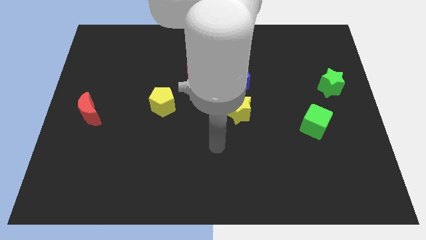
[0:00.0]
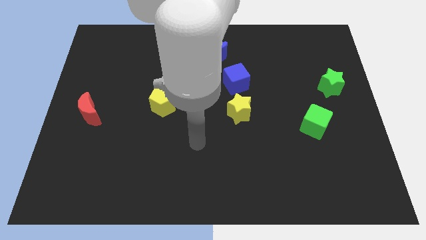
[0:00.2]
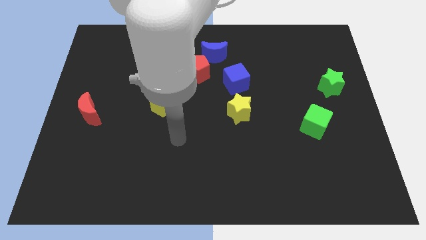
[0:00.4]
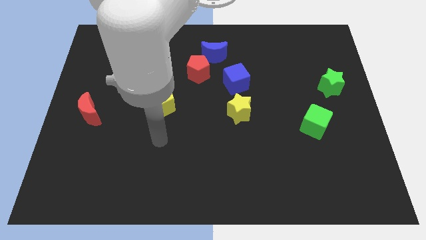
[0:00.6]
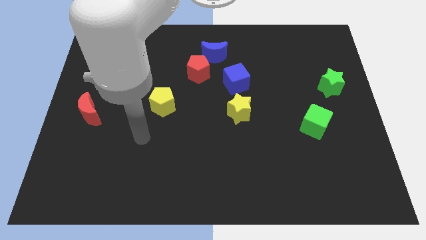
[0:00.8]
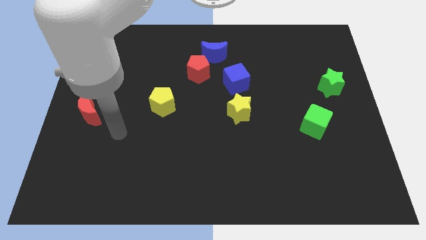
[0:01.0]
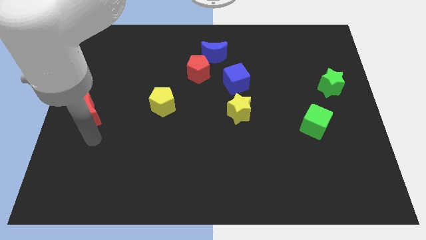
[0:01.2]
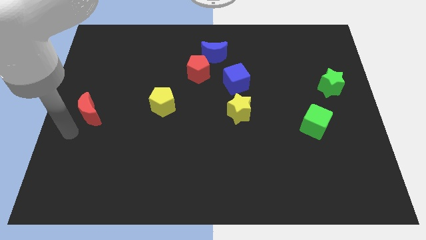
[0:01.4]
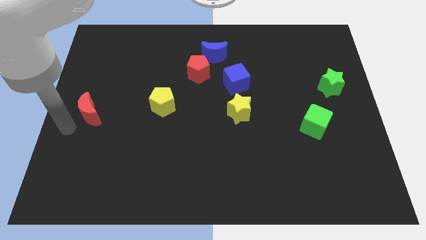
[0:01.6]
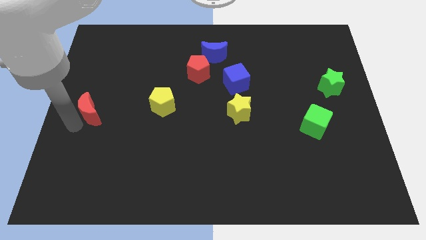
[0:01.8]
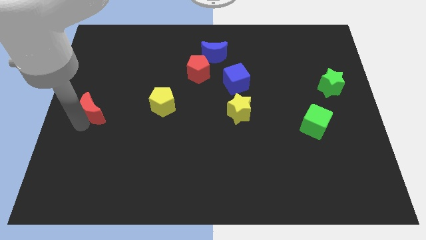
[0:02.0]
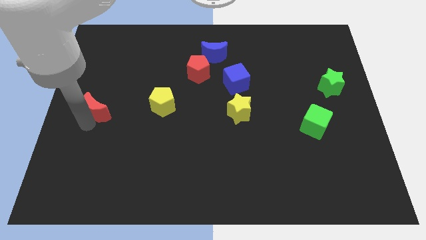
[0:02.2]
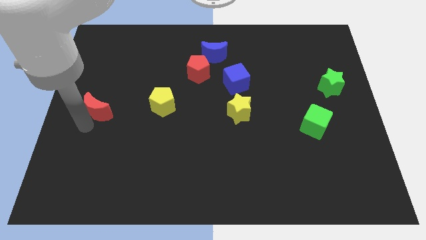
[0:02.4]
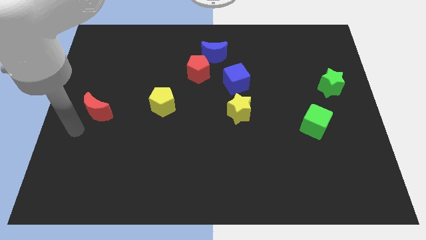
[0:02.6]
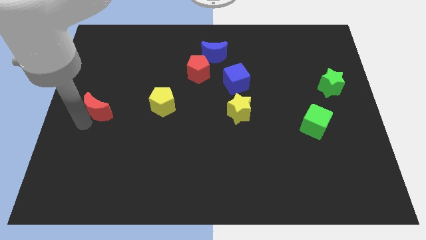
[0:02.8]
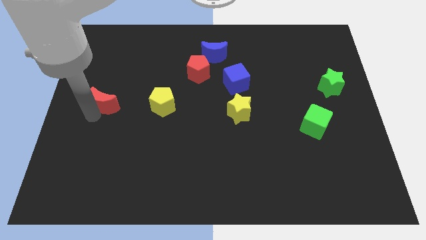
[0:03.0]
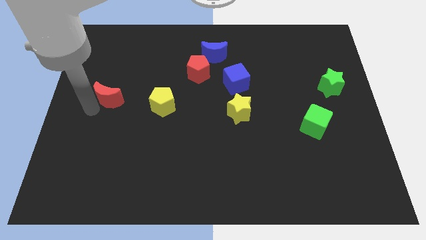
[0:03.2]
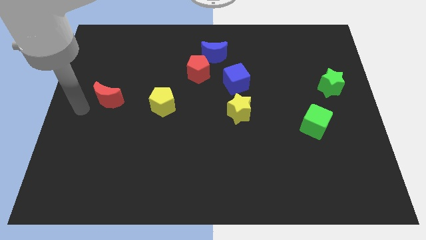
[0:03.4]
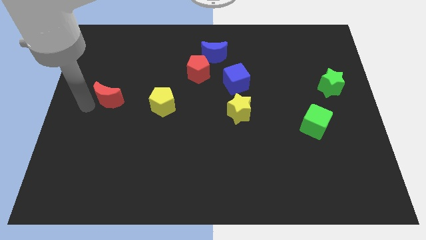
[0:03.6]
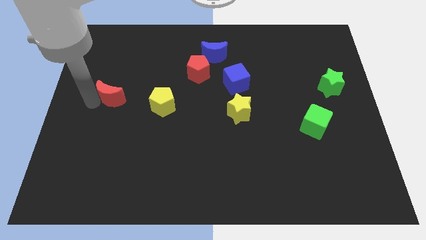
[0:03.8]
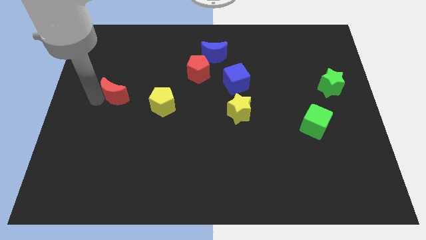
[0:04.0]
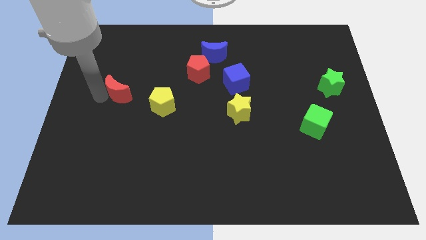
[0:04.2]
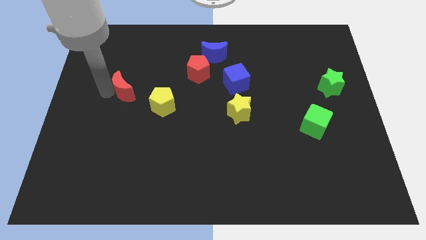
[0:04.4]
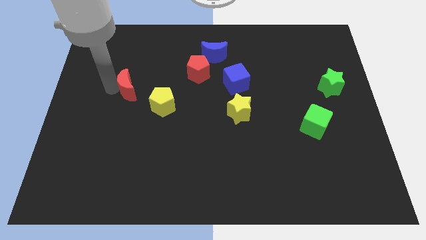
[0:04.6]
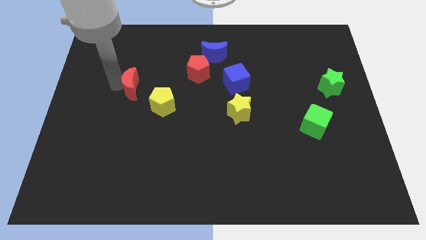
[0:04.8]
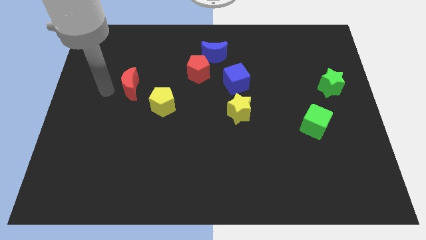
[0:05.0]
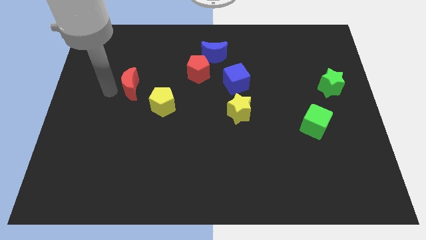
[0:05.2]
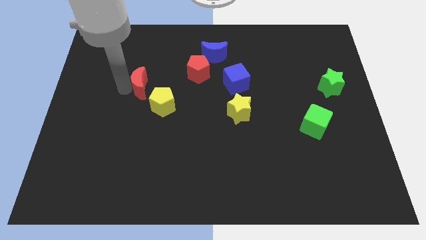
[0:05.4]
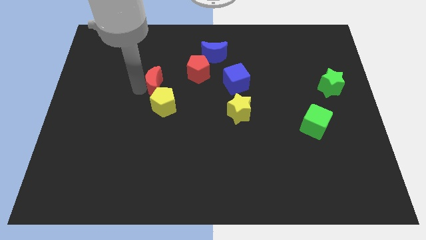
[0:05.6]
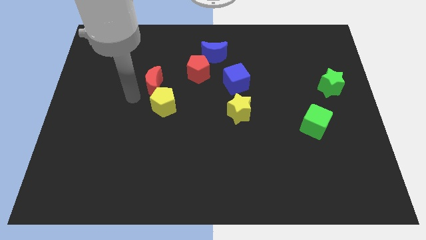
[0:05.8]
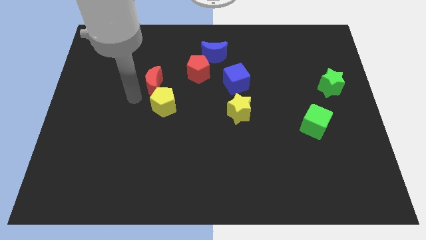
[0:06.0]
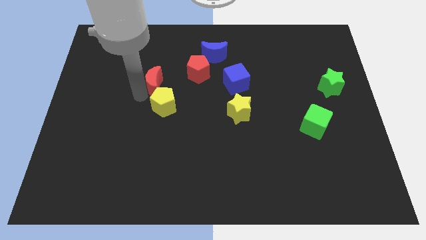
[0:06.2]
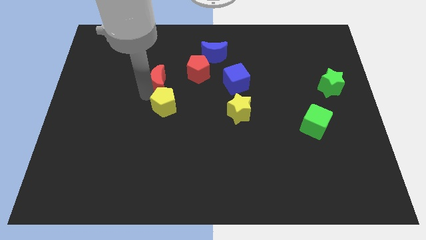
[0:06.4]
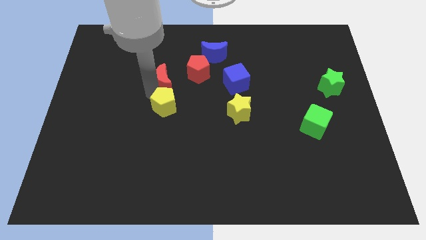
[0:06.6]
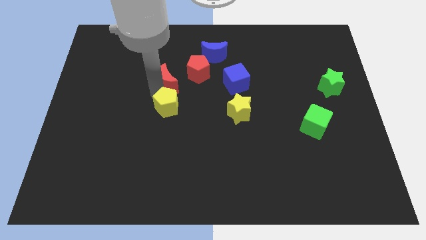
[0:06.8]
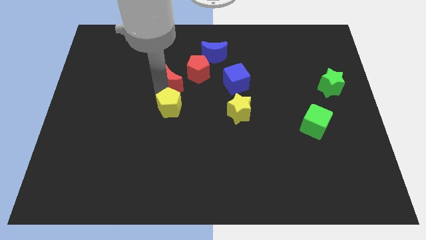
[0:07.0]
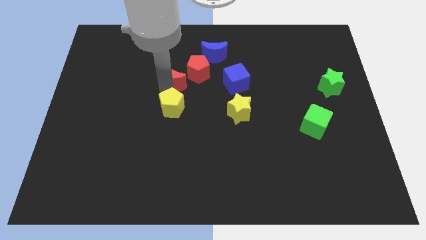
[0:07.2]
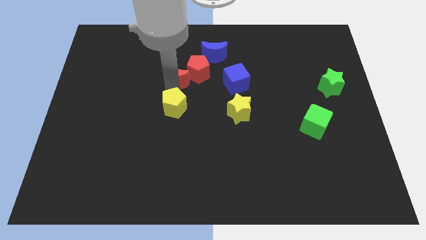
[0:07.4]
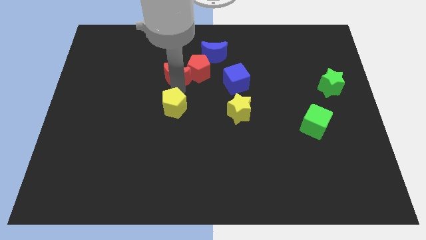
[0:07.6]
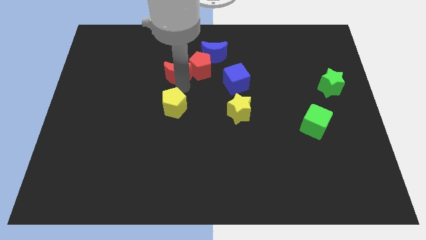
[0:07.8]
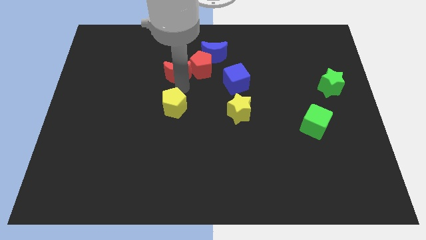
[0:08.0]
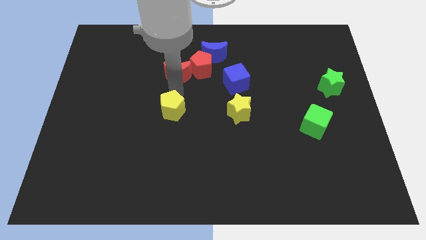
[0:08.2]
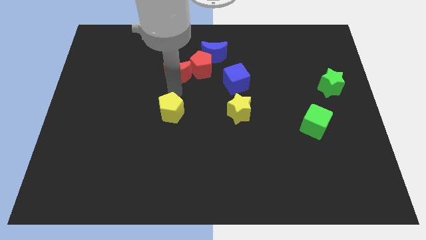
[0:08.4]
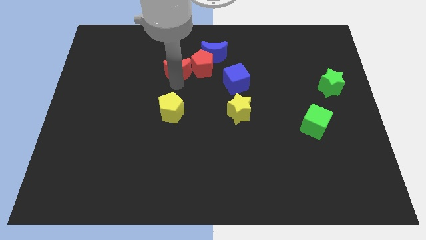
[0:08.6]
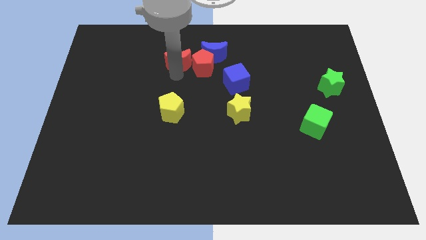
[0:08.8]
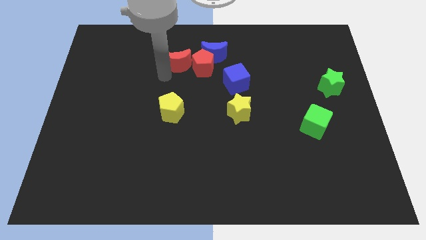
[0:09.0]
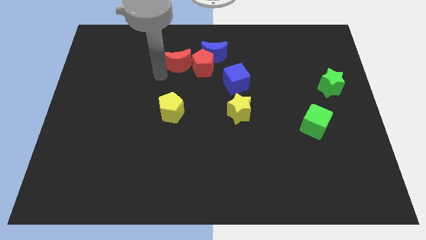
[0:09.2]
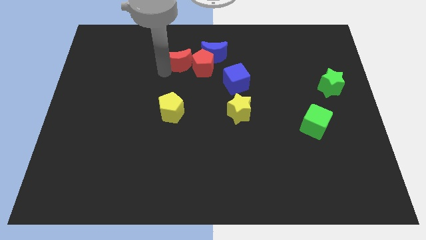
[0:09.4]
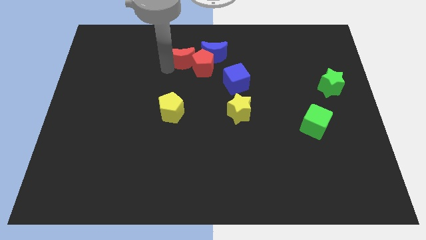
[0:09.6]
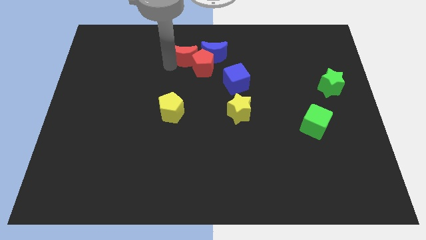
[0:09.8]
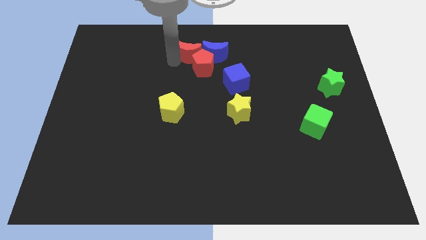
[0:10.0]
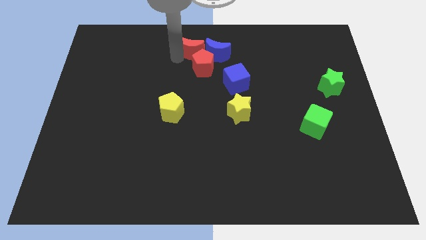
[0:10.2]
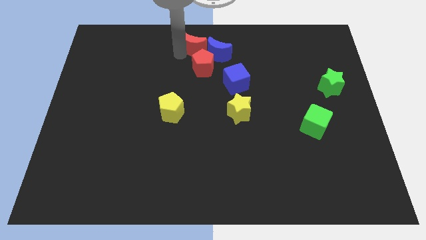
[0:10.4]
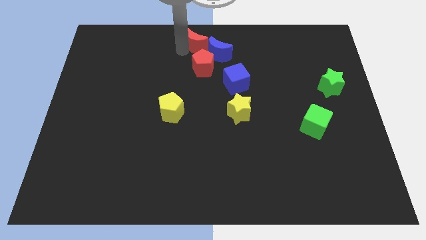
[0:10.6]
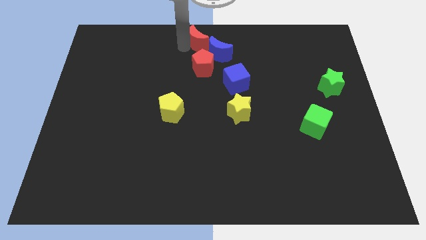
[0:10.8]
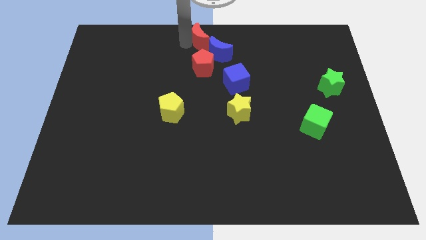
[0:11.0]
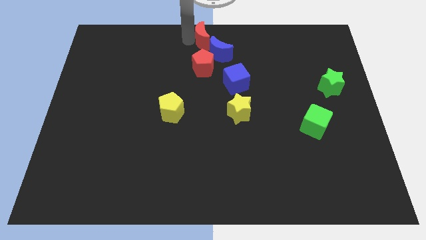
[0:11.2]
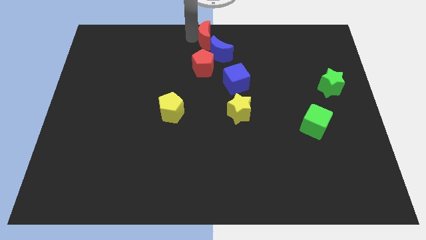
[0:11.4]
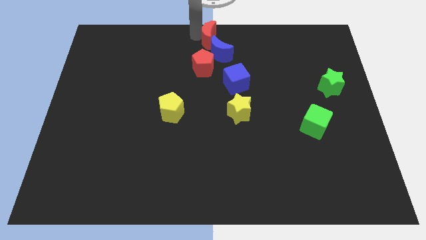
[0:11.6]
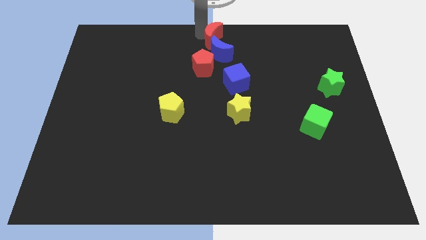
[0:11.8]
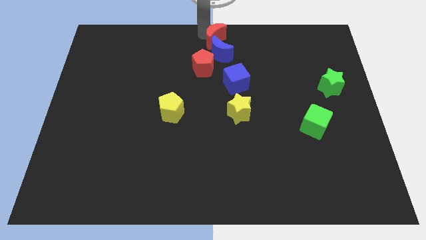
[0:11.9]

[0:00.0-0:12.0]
slide the red moon next to the blue moon
